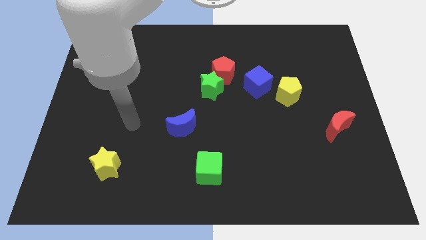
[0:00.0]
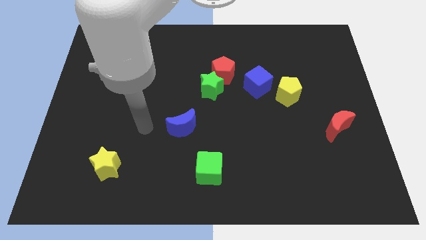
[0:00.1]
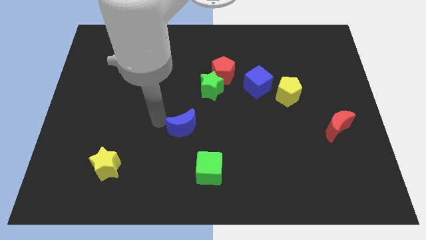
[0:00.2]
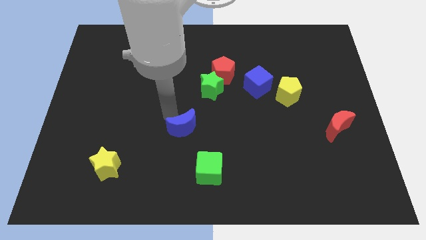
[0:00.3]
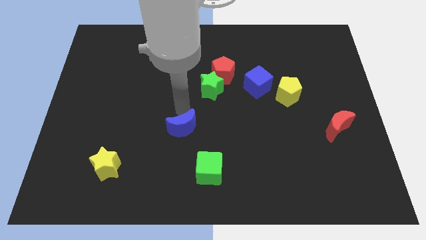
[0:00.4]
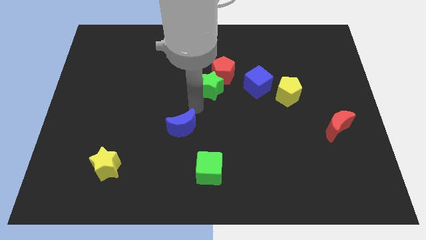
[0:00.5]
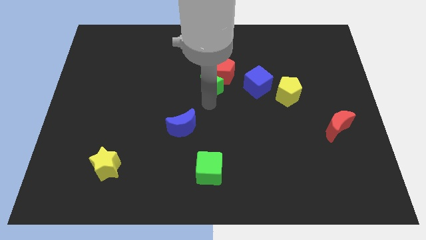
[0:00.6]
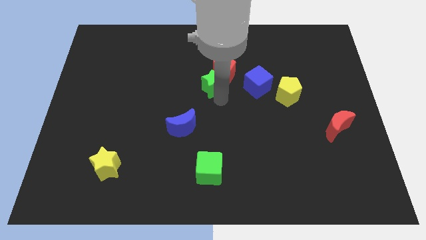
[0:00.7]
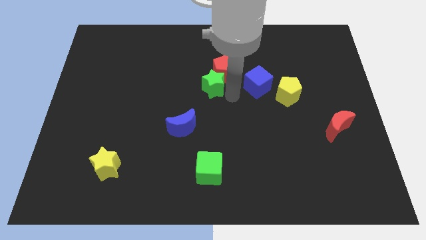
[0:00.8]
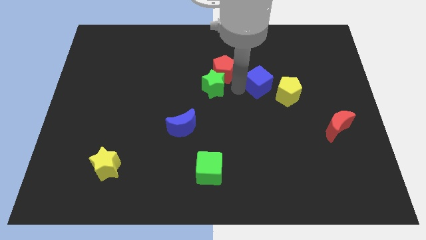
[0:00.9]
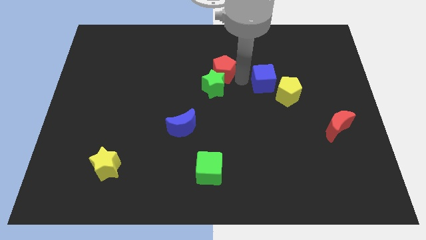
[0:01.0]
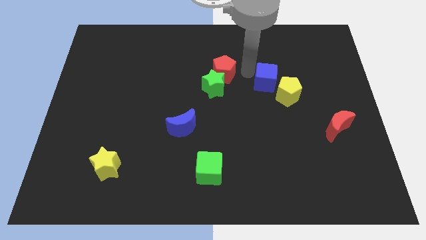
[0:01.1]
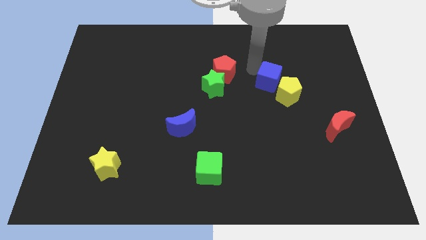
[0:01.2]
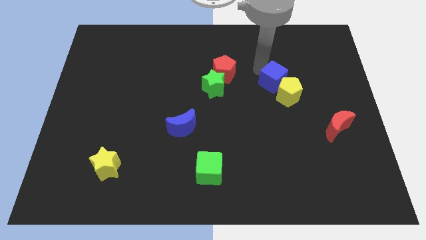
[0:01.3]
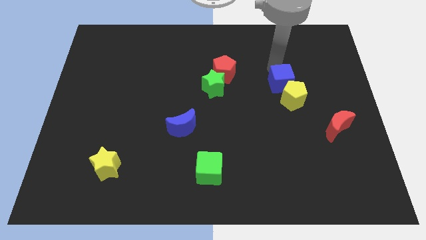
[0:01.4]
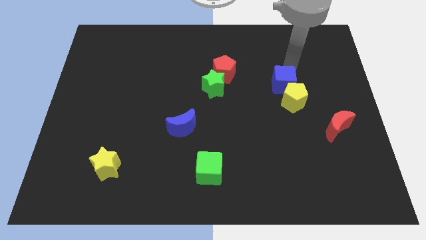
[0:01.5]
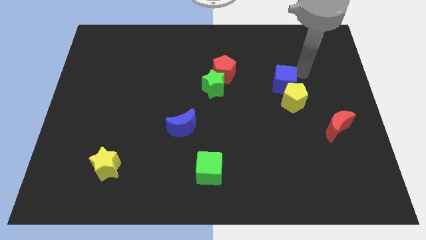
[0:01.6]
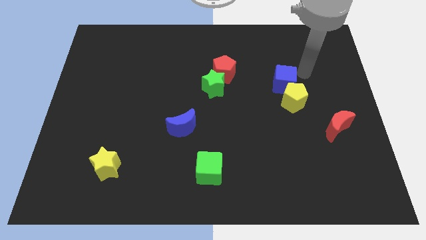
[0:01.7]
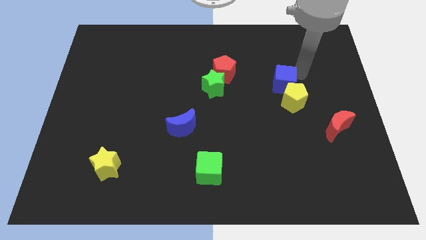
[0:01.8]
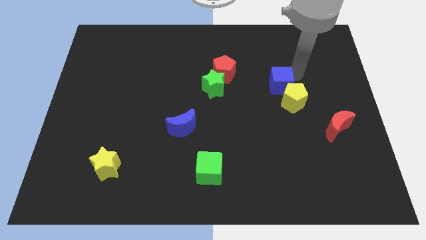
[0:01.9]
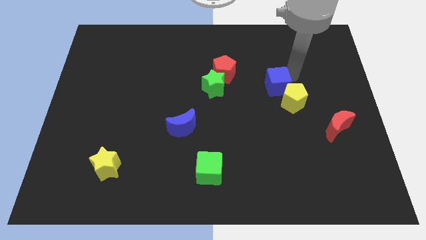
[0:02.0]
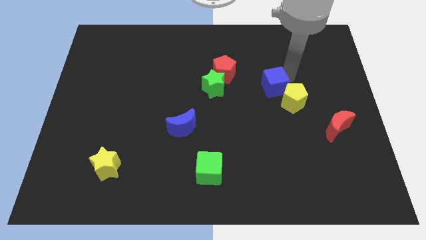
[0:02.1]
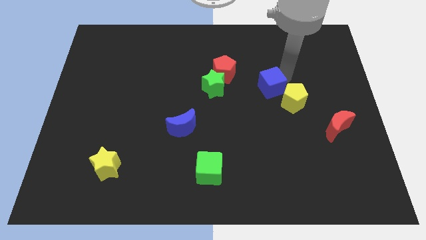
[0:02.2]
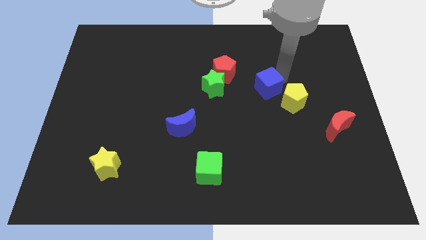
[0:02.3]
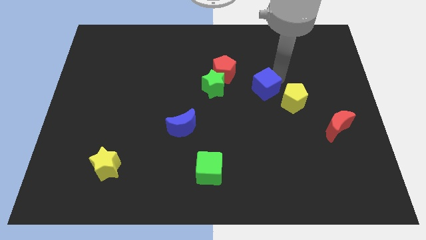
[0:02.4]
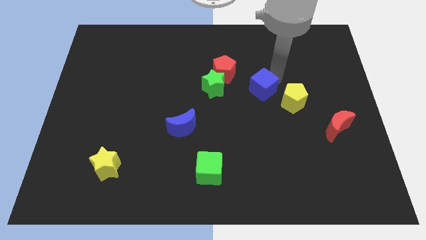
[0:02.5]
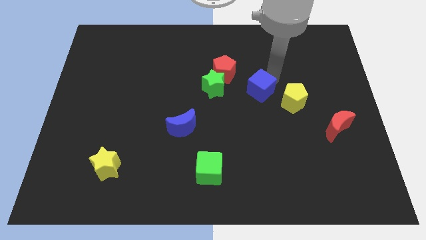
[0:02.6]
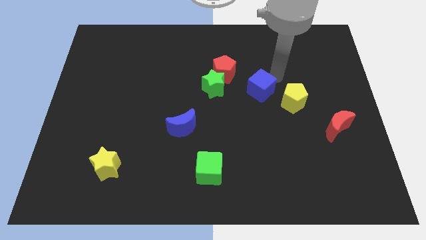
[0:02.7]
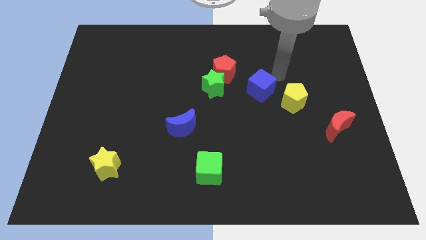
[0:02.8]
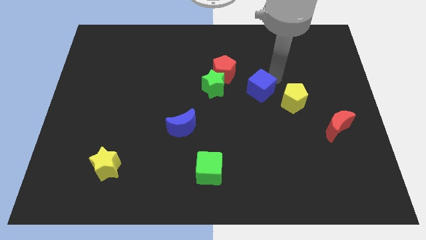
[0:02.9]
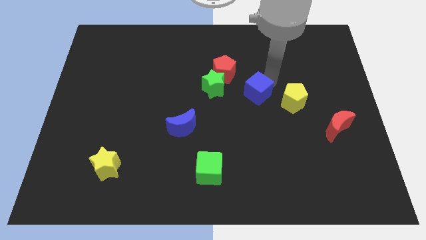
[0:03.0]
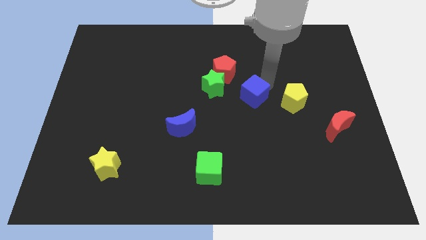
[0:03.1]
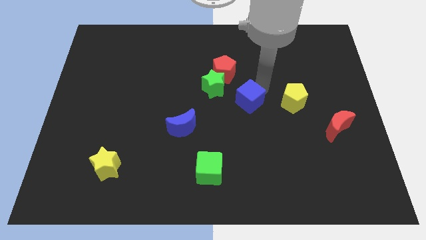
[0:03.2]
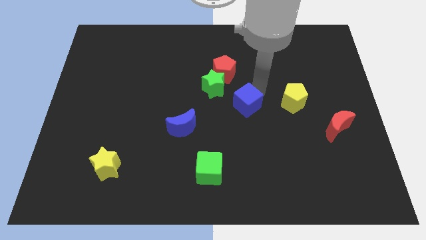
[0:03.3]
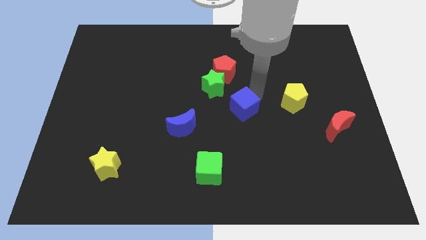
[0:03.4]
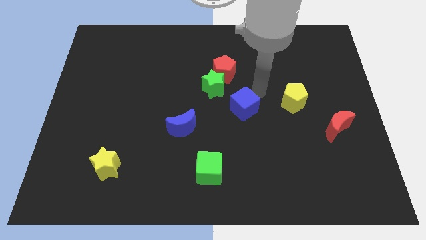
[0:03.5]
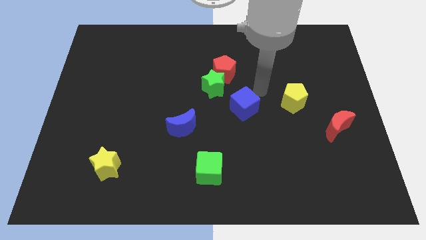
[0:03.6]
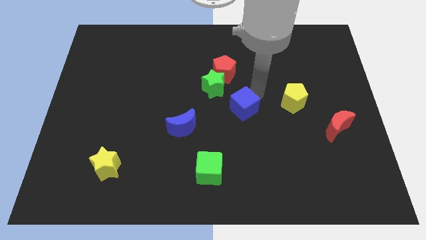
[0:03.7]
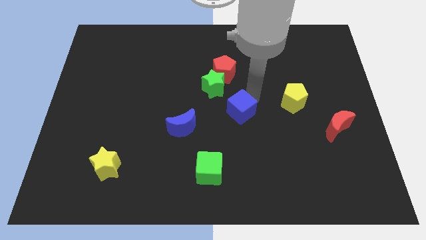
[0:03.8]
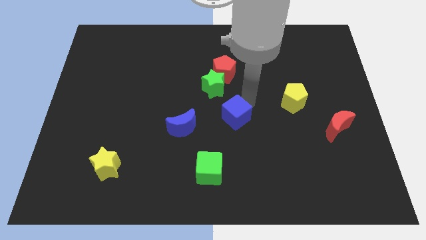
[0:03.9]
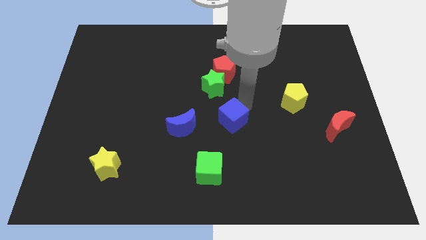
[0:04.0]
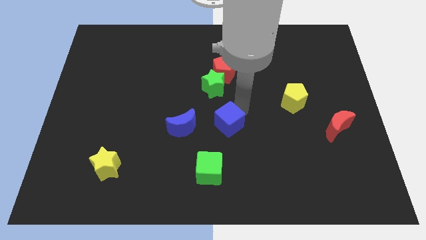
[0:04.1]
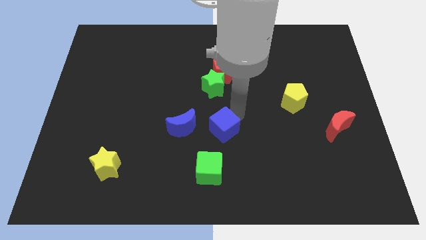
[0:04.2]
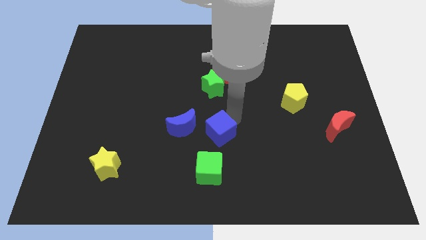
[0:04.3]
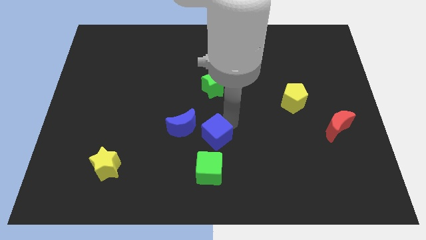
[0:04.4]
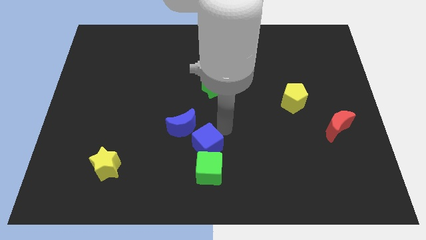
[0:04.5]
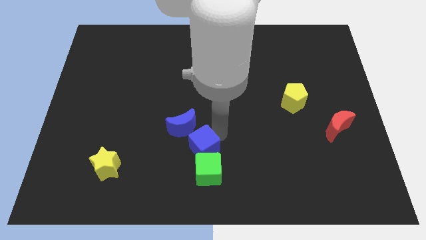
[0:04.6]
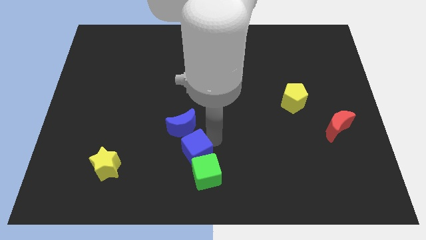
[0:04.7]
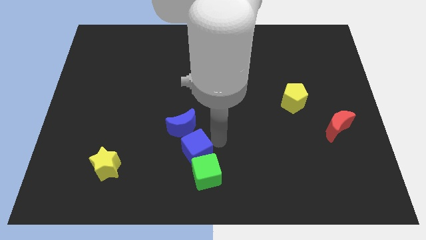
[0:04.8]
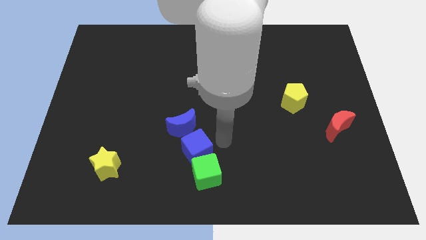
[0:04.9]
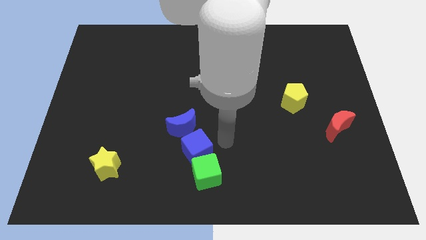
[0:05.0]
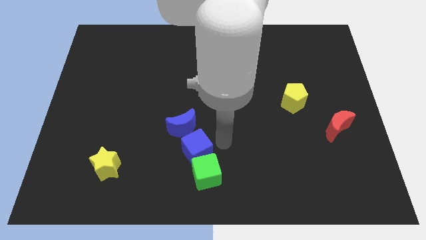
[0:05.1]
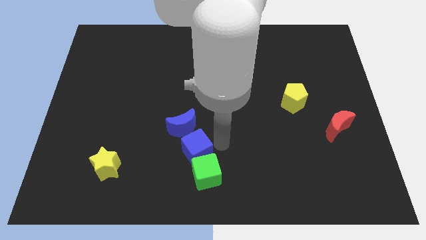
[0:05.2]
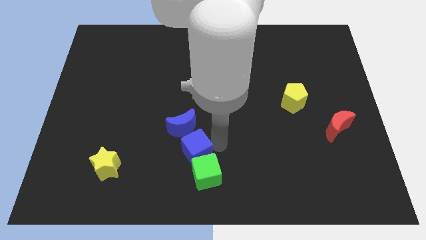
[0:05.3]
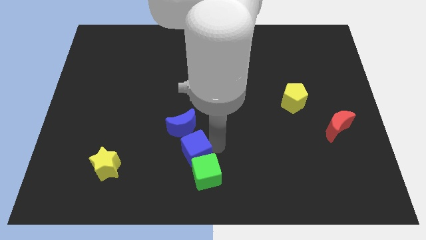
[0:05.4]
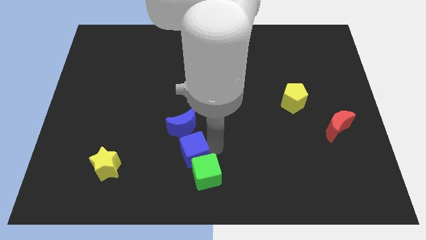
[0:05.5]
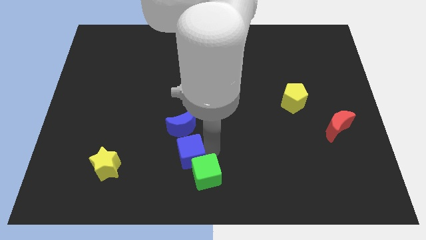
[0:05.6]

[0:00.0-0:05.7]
push the blue cube left of the green cube

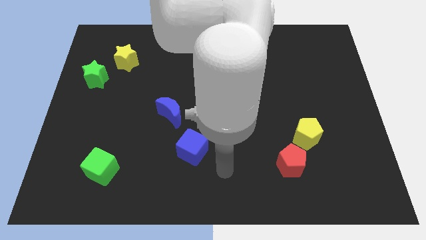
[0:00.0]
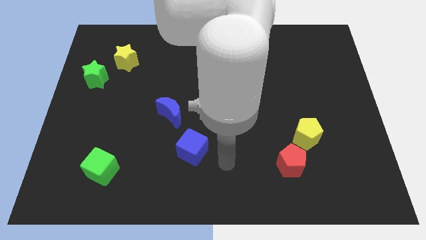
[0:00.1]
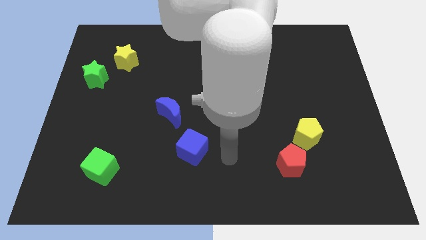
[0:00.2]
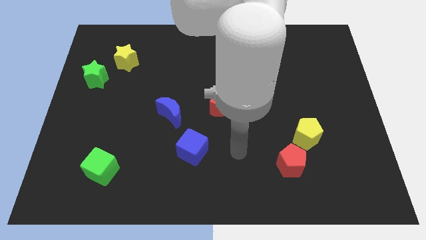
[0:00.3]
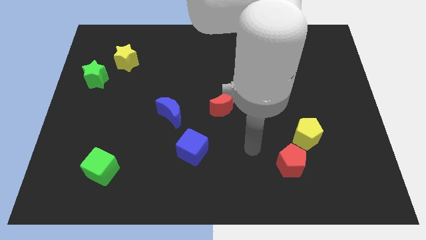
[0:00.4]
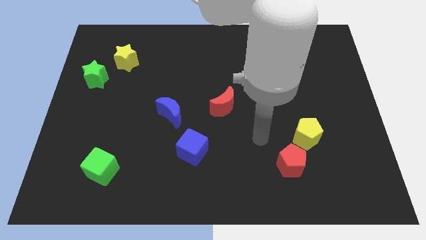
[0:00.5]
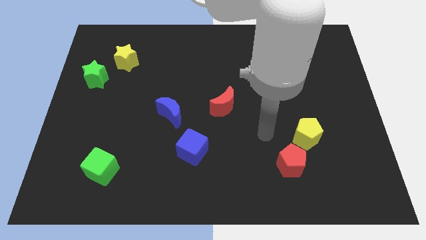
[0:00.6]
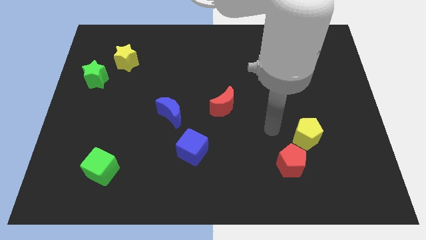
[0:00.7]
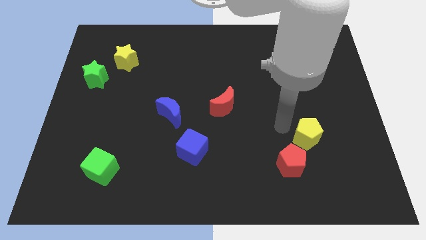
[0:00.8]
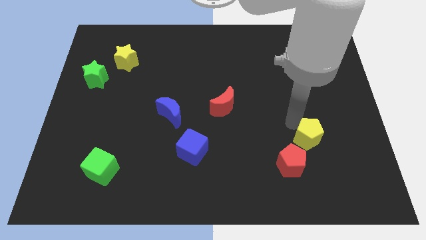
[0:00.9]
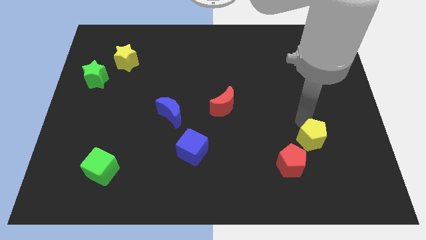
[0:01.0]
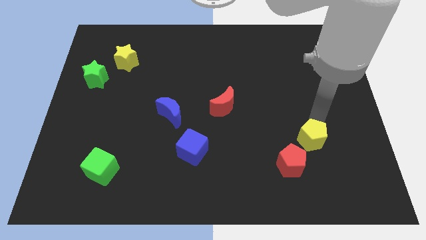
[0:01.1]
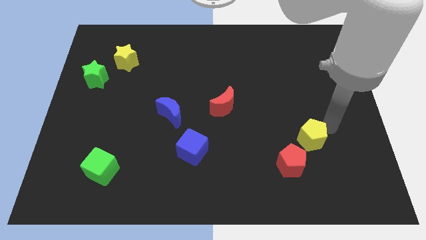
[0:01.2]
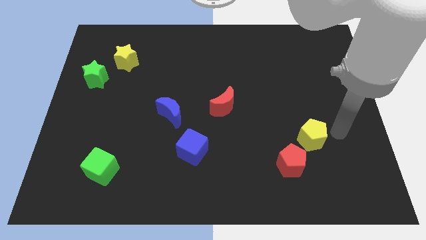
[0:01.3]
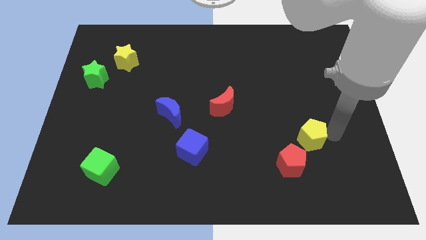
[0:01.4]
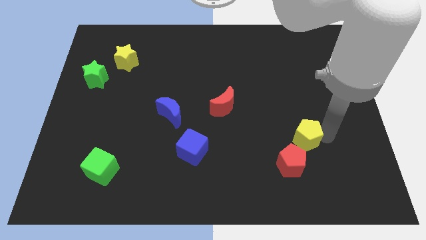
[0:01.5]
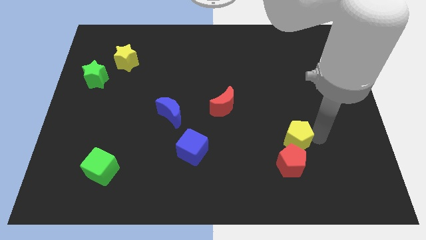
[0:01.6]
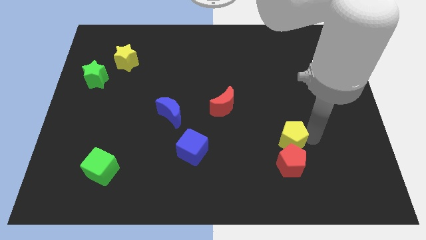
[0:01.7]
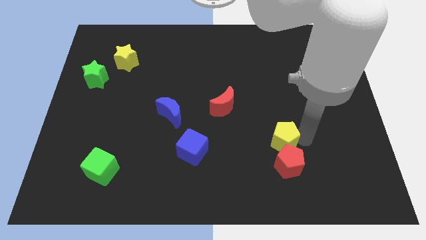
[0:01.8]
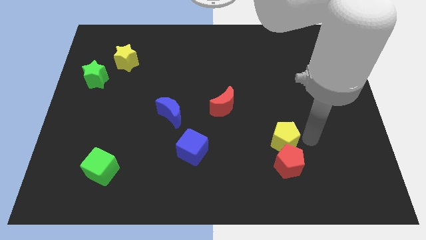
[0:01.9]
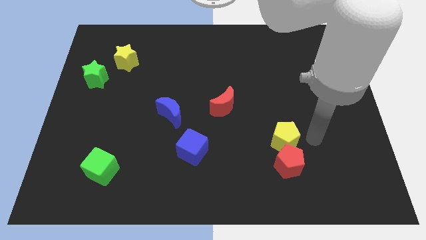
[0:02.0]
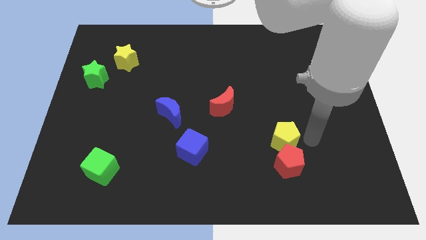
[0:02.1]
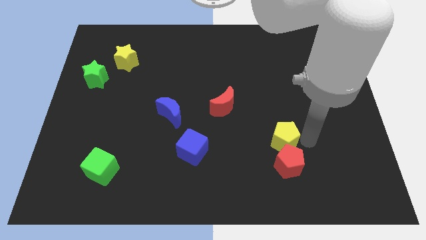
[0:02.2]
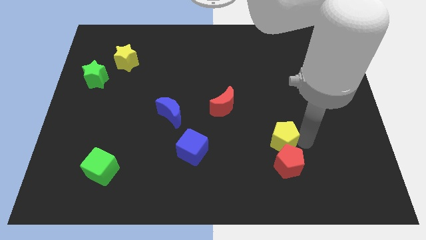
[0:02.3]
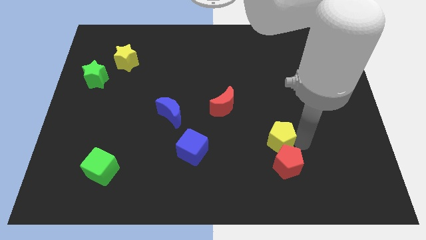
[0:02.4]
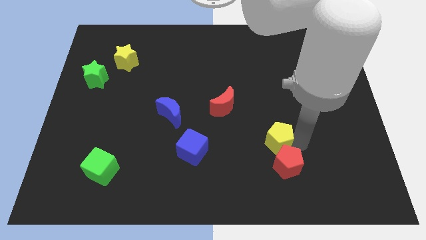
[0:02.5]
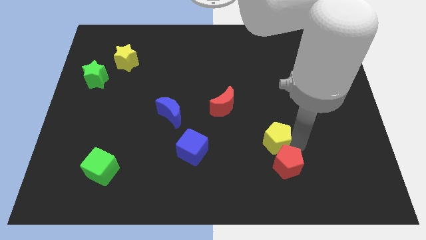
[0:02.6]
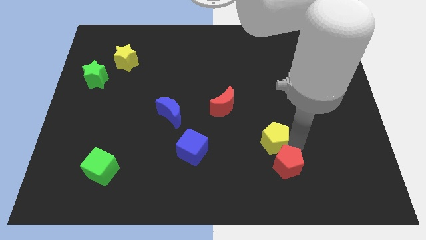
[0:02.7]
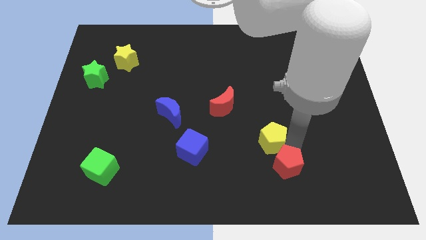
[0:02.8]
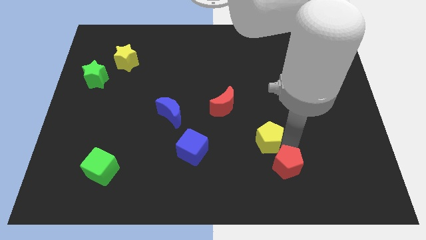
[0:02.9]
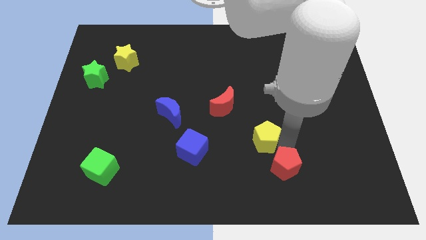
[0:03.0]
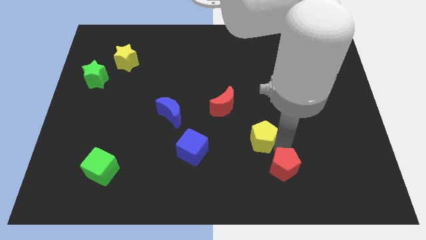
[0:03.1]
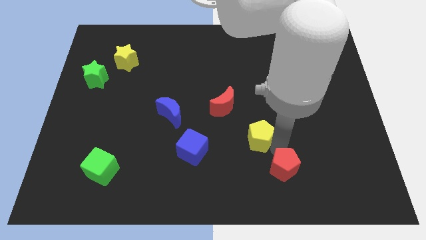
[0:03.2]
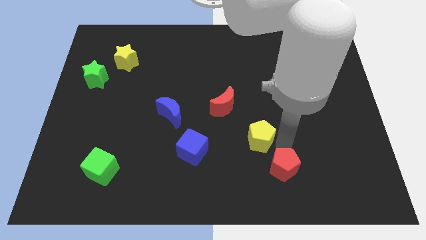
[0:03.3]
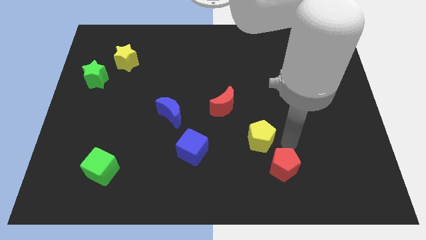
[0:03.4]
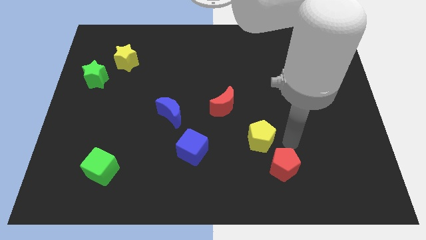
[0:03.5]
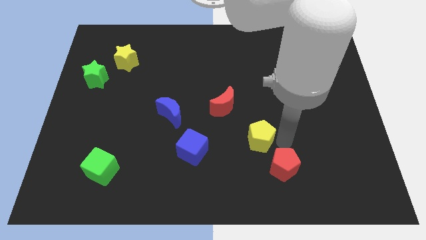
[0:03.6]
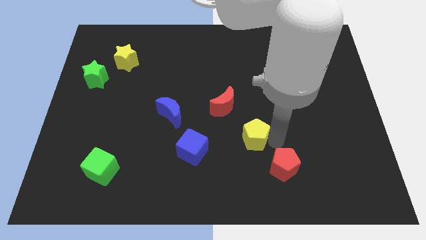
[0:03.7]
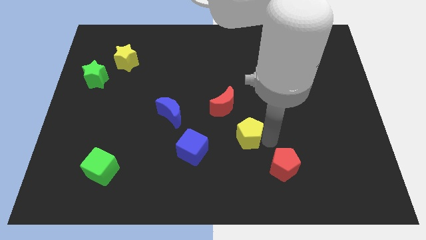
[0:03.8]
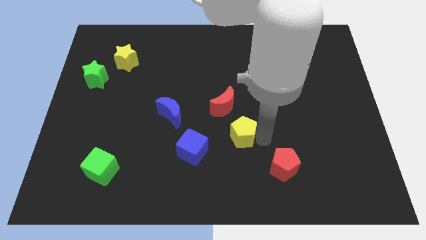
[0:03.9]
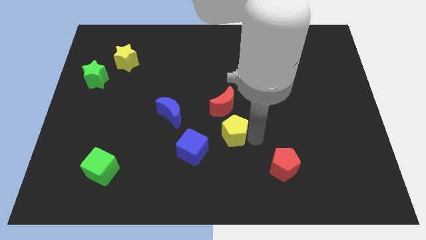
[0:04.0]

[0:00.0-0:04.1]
push the yellow pentagon to the top right of the blue cube
